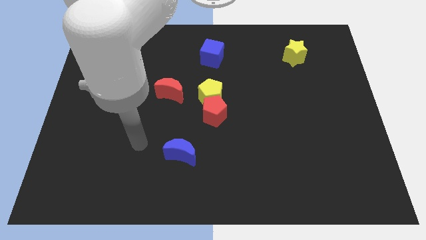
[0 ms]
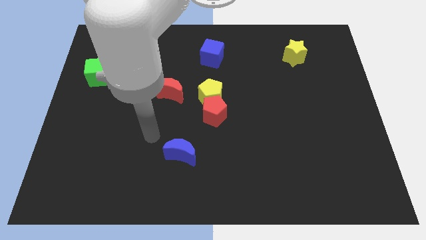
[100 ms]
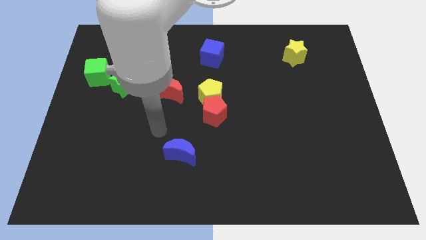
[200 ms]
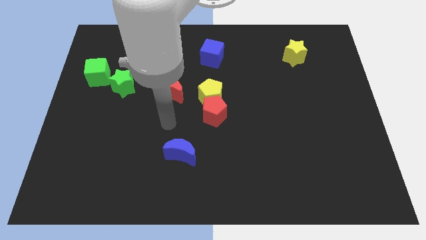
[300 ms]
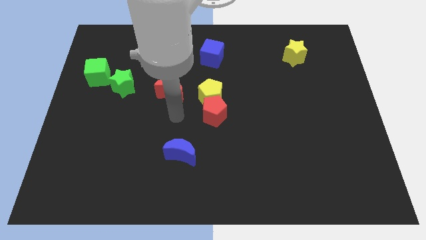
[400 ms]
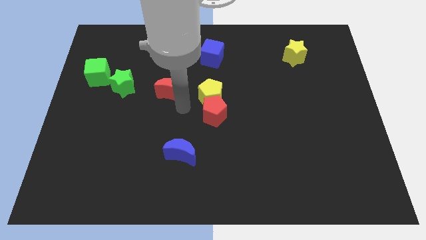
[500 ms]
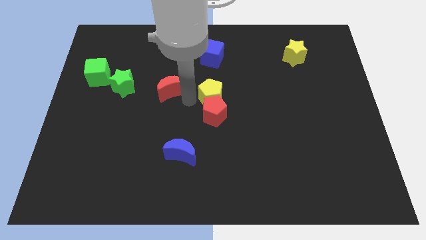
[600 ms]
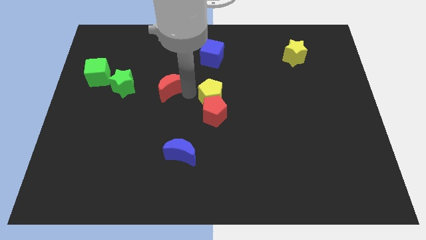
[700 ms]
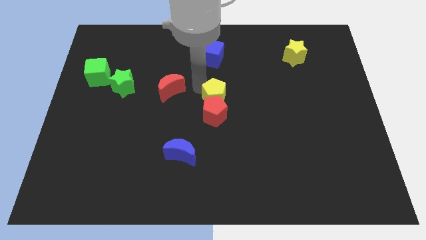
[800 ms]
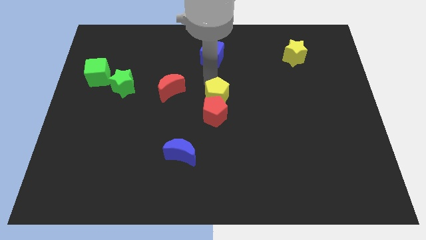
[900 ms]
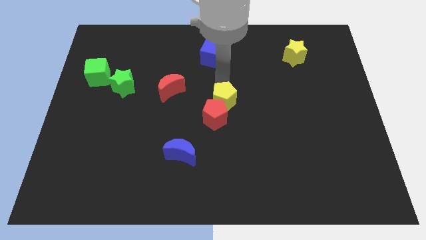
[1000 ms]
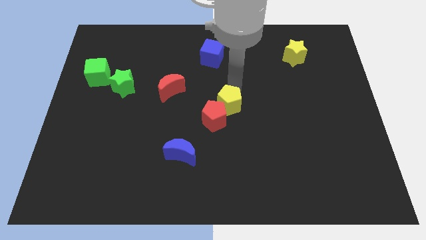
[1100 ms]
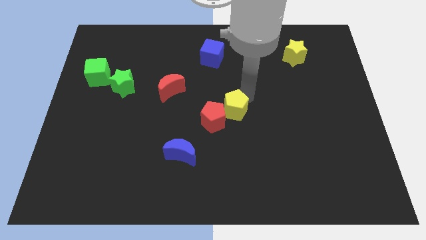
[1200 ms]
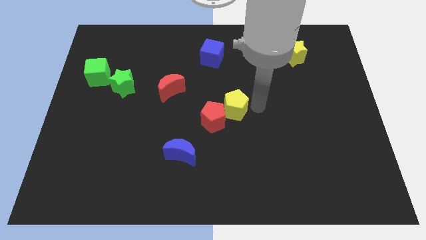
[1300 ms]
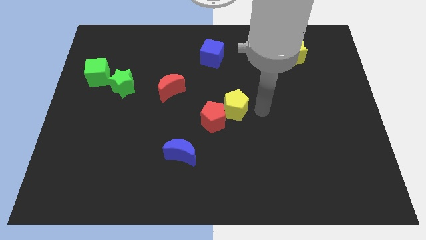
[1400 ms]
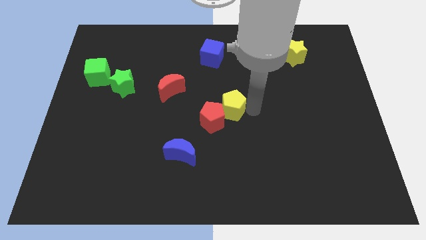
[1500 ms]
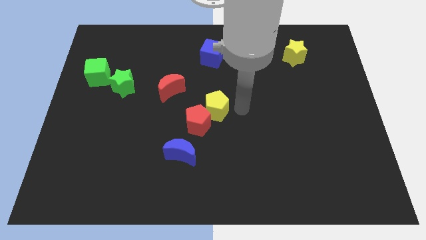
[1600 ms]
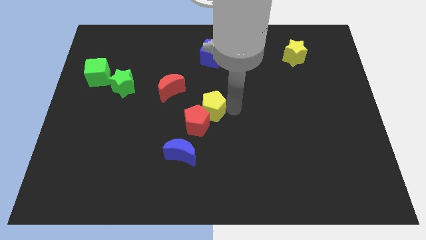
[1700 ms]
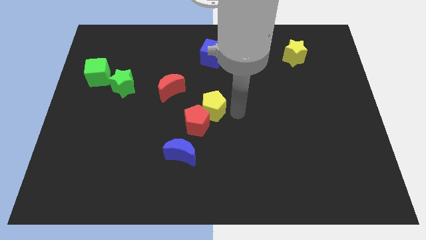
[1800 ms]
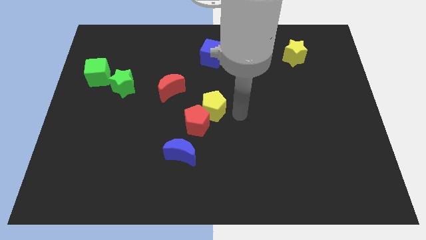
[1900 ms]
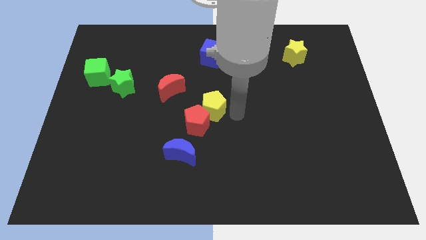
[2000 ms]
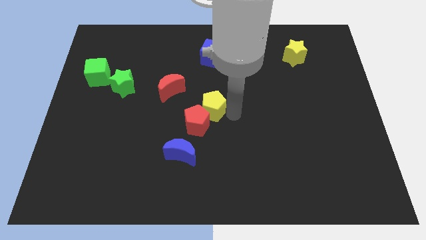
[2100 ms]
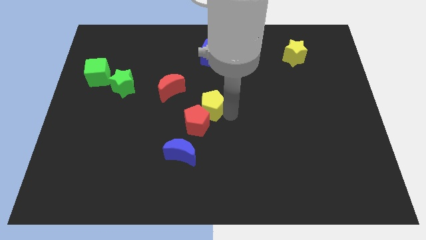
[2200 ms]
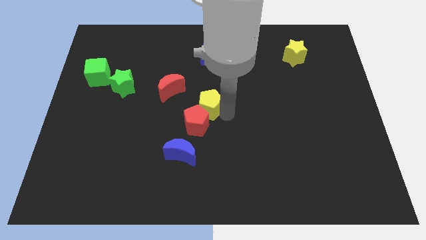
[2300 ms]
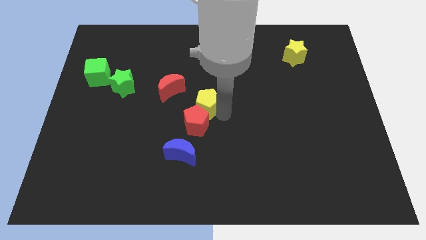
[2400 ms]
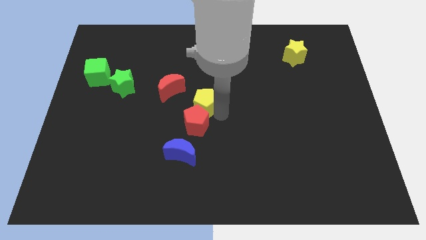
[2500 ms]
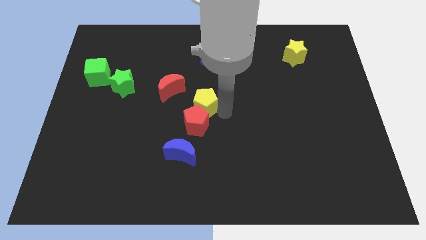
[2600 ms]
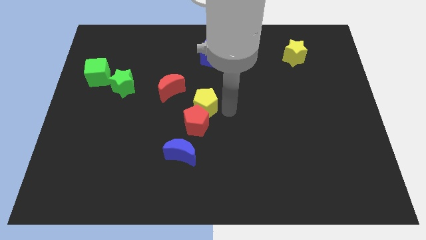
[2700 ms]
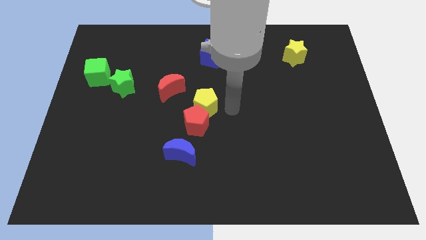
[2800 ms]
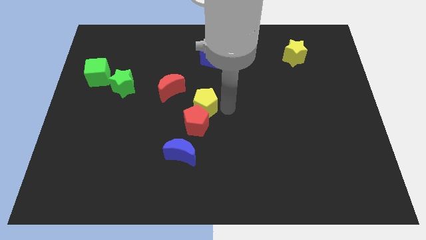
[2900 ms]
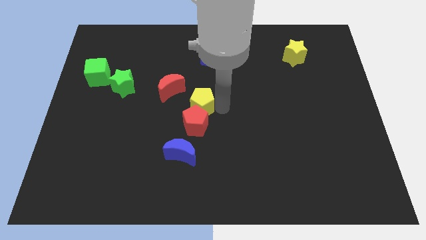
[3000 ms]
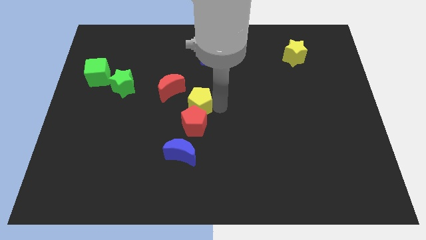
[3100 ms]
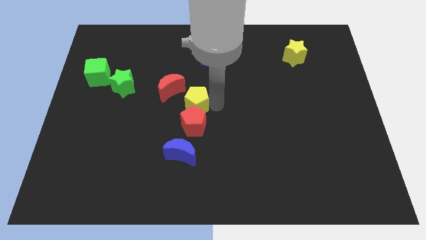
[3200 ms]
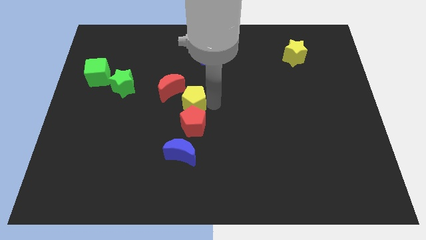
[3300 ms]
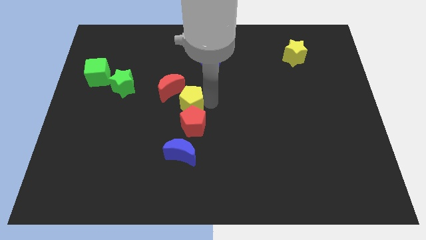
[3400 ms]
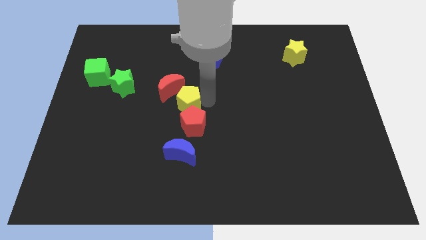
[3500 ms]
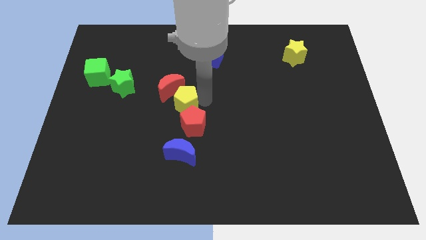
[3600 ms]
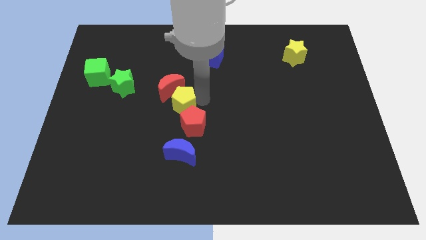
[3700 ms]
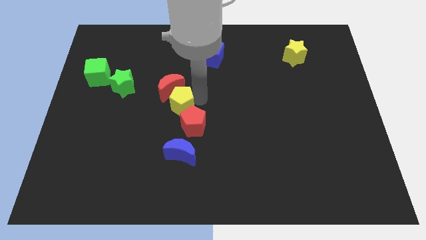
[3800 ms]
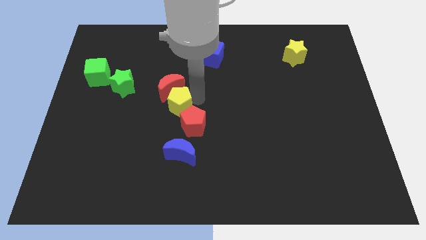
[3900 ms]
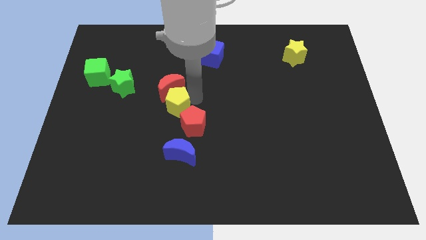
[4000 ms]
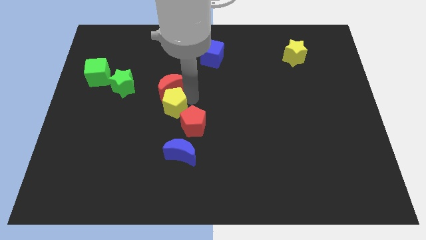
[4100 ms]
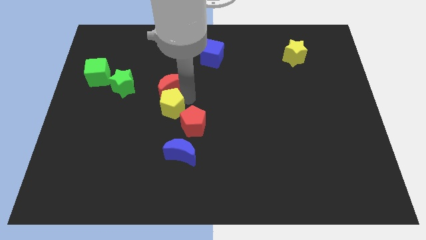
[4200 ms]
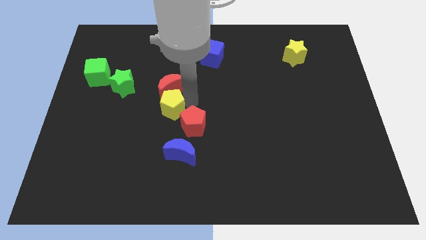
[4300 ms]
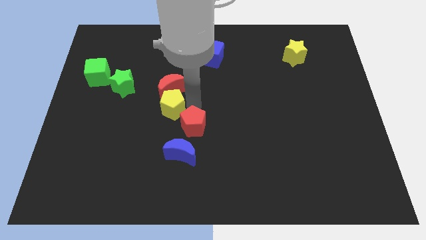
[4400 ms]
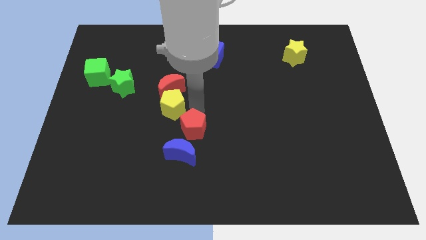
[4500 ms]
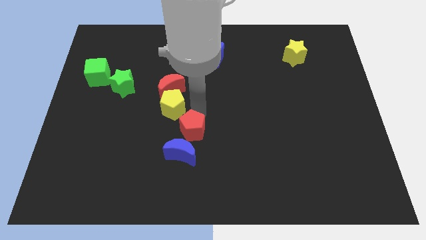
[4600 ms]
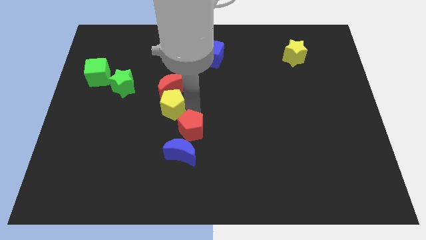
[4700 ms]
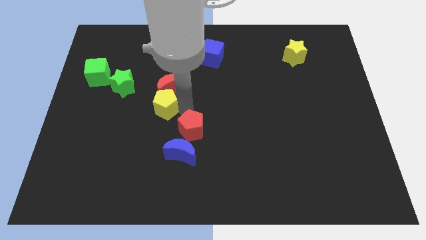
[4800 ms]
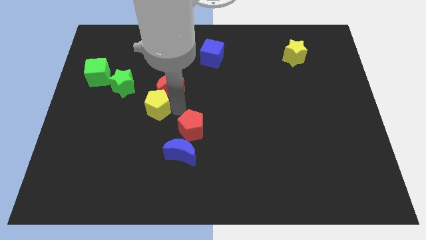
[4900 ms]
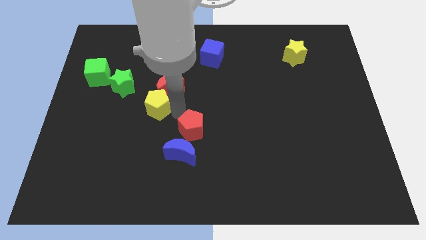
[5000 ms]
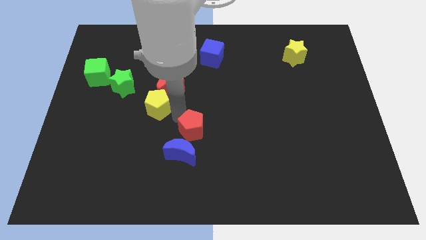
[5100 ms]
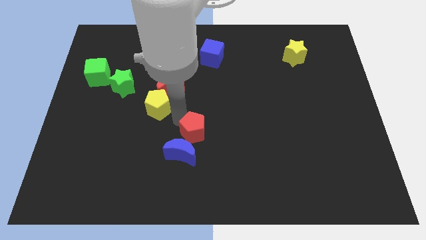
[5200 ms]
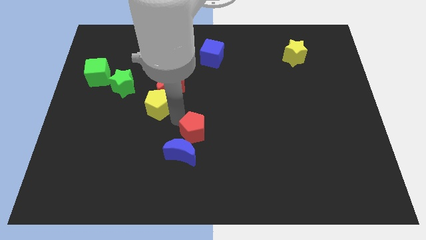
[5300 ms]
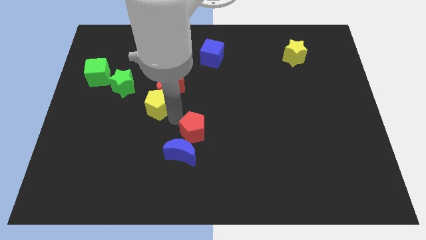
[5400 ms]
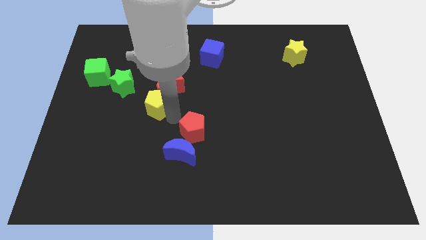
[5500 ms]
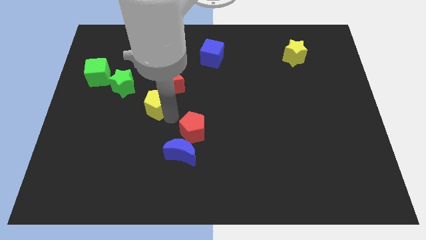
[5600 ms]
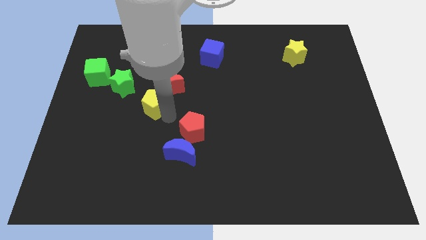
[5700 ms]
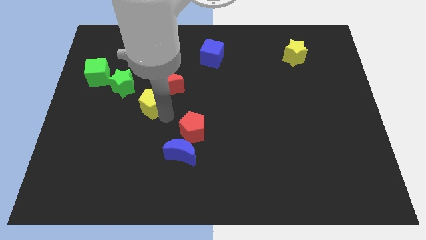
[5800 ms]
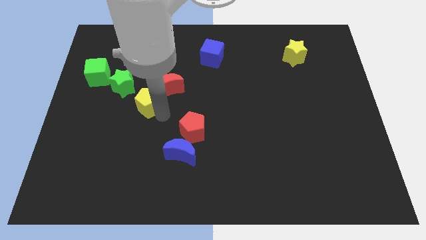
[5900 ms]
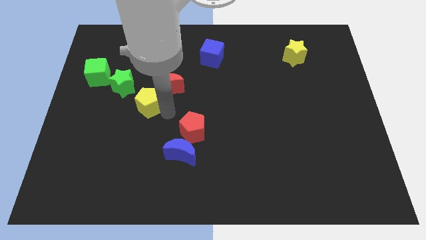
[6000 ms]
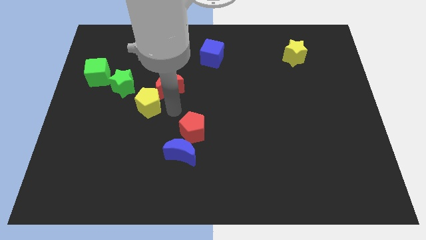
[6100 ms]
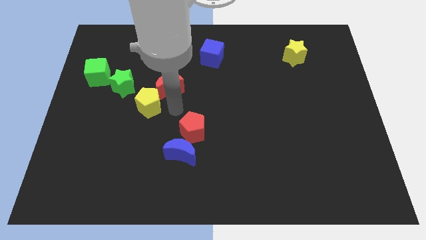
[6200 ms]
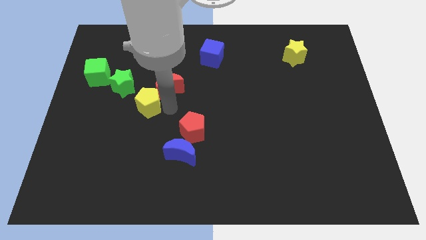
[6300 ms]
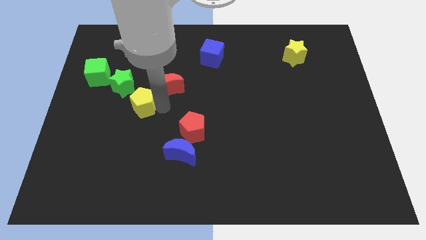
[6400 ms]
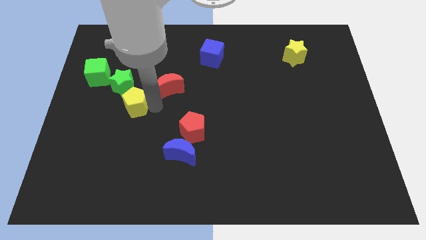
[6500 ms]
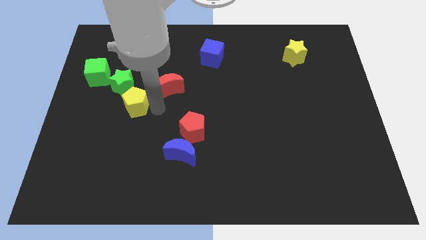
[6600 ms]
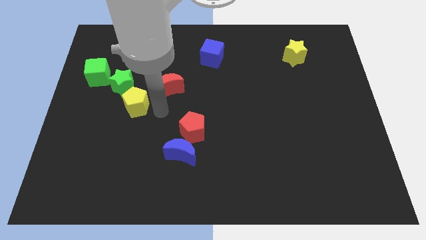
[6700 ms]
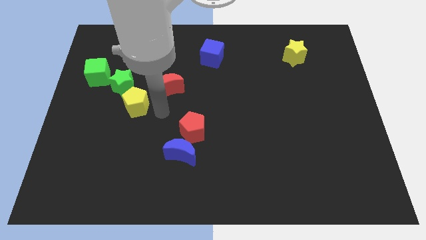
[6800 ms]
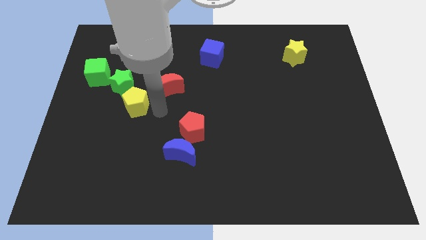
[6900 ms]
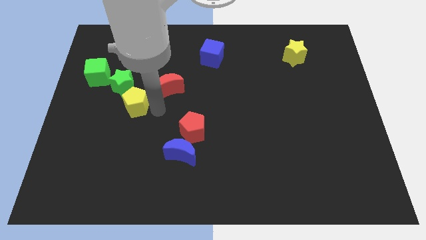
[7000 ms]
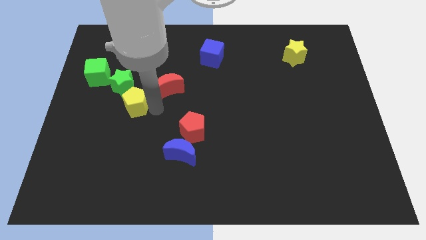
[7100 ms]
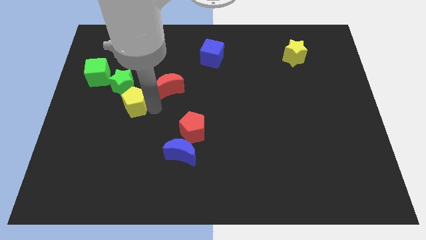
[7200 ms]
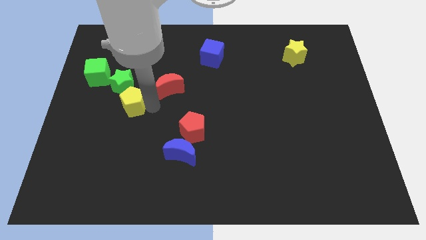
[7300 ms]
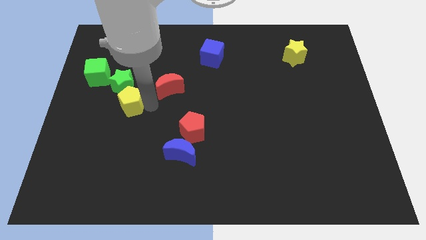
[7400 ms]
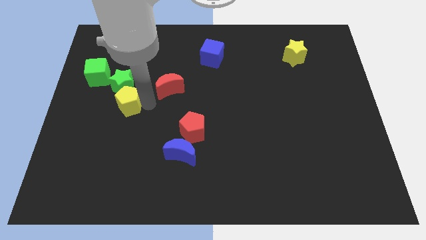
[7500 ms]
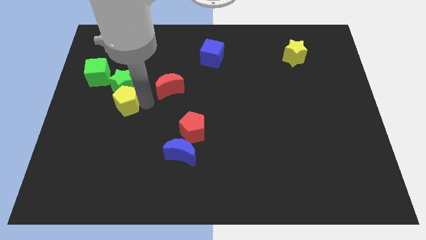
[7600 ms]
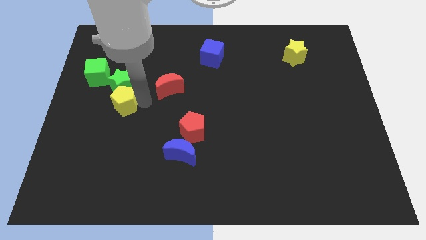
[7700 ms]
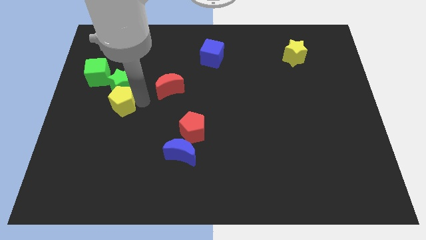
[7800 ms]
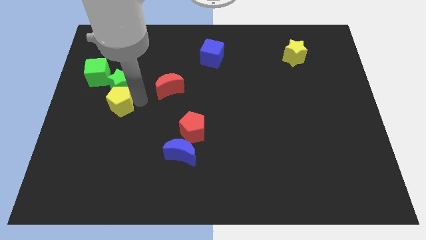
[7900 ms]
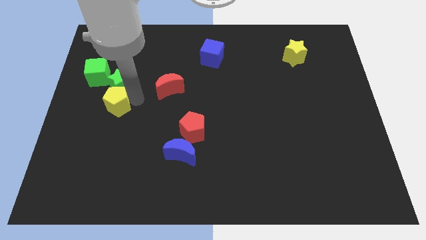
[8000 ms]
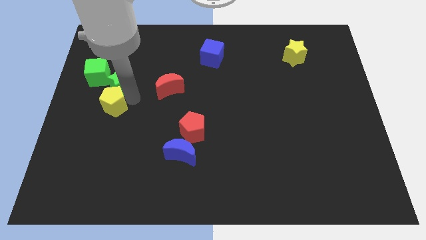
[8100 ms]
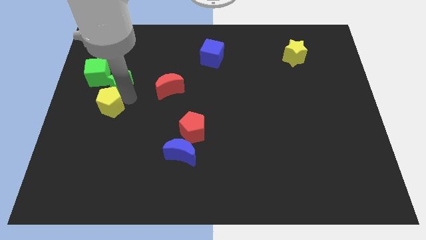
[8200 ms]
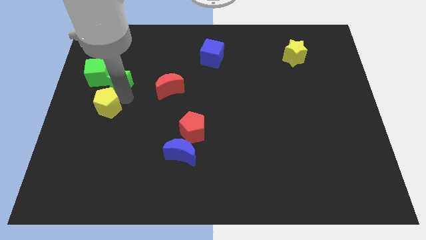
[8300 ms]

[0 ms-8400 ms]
push the yellow pentagon to the center left
